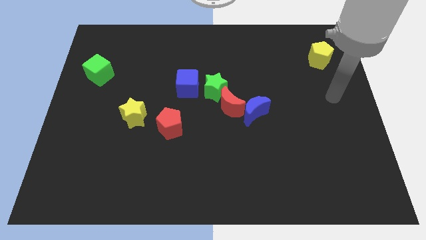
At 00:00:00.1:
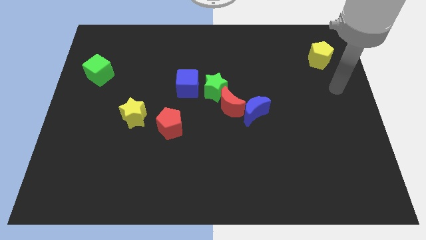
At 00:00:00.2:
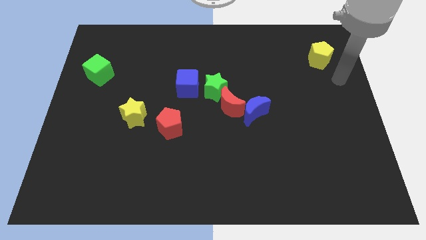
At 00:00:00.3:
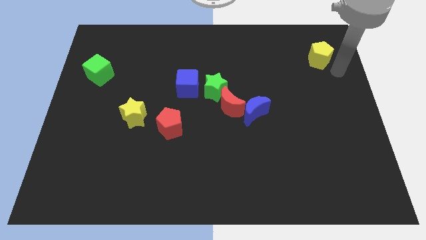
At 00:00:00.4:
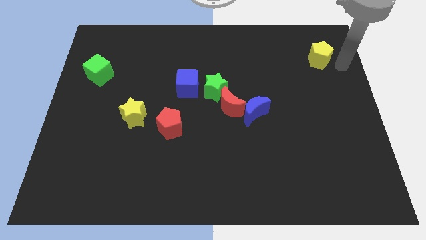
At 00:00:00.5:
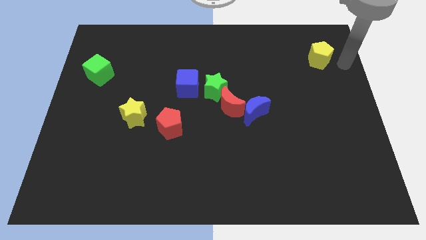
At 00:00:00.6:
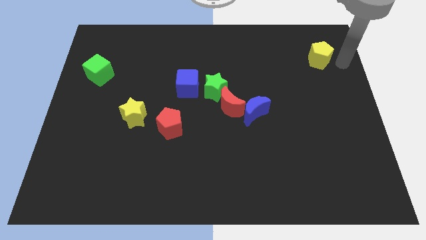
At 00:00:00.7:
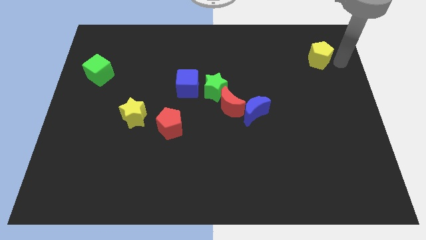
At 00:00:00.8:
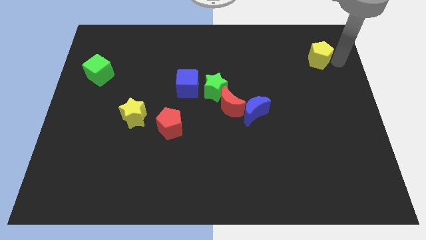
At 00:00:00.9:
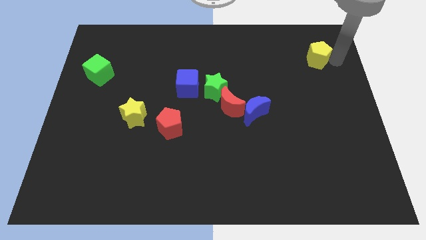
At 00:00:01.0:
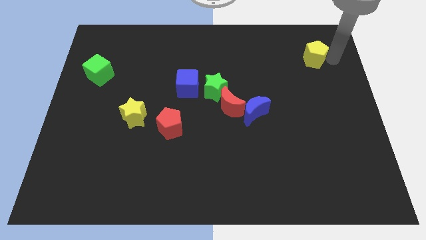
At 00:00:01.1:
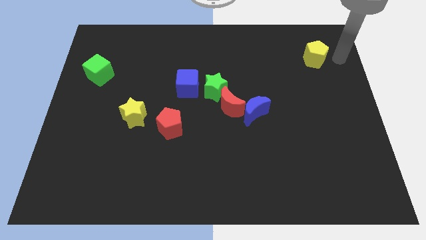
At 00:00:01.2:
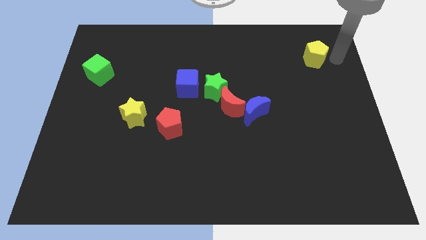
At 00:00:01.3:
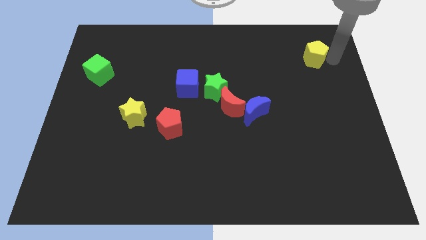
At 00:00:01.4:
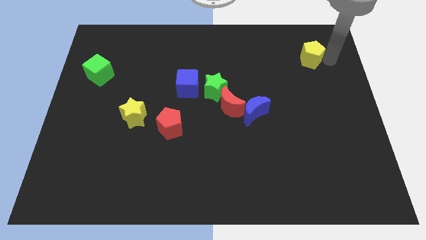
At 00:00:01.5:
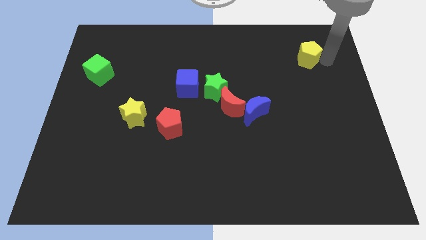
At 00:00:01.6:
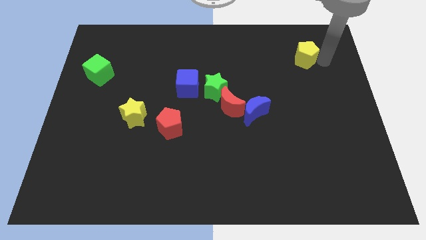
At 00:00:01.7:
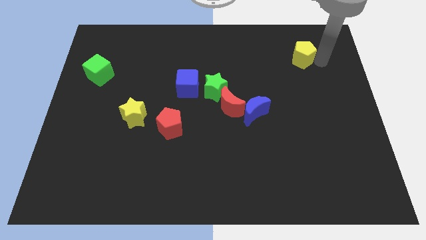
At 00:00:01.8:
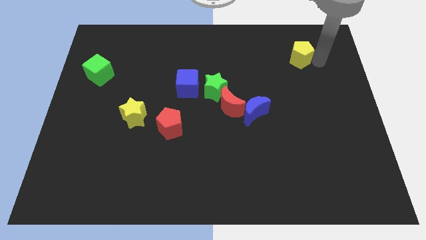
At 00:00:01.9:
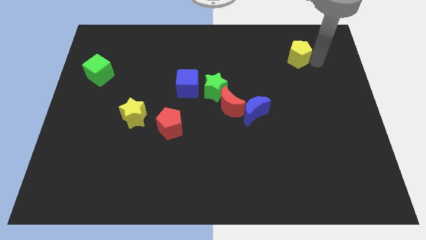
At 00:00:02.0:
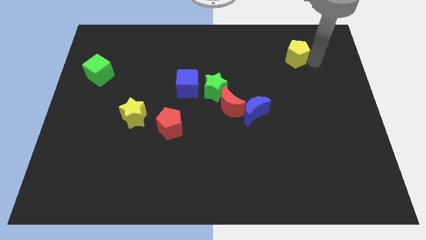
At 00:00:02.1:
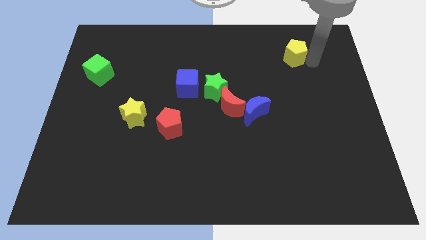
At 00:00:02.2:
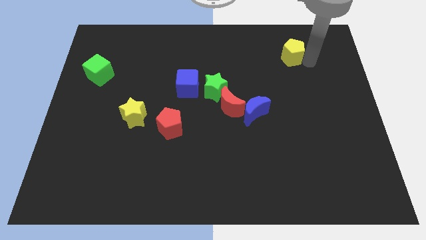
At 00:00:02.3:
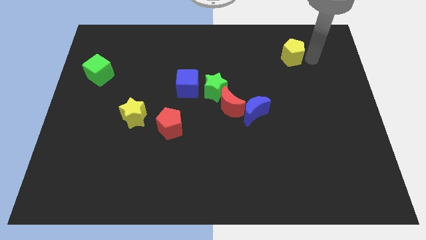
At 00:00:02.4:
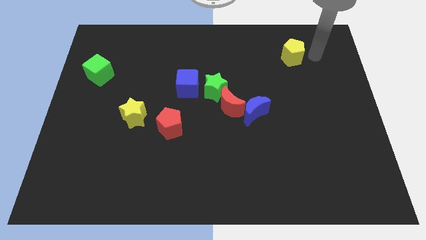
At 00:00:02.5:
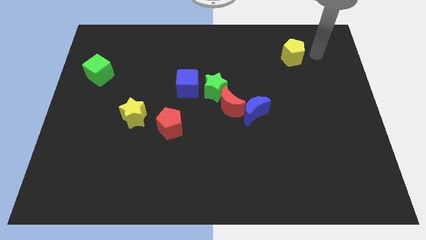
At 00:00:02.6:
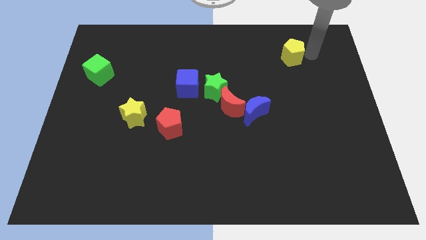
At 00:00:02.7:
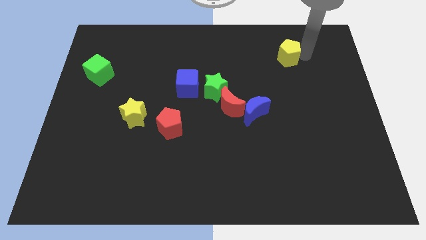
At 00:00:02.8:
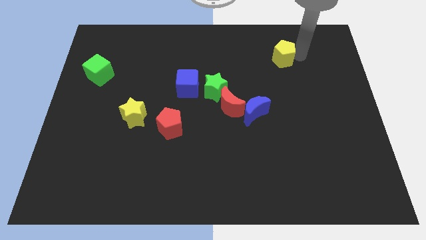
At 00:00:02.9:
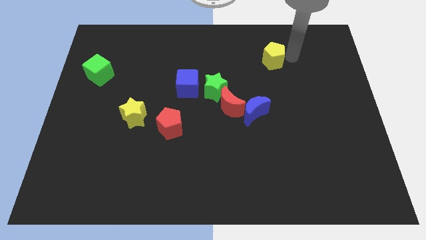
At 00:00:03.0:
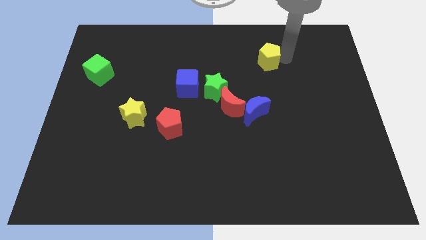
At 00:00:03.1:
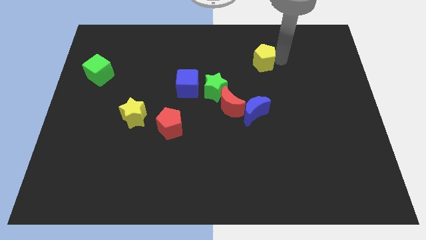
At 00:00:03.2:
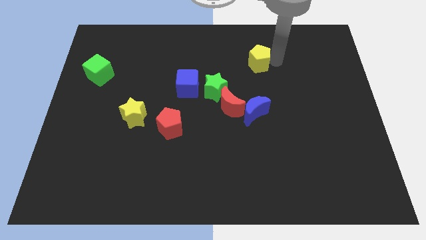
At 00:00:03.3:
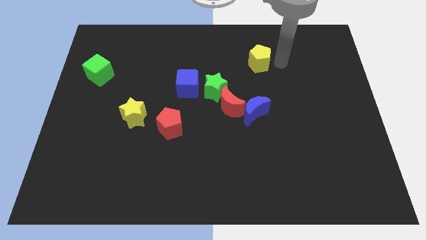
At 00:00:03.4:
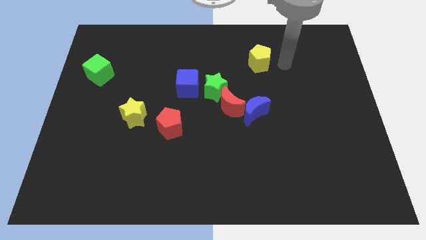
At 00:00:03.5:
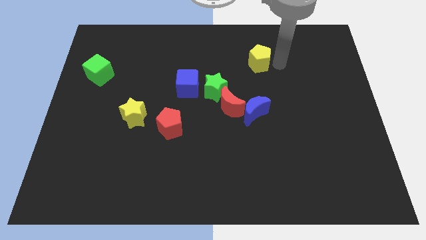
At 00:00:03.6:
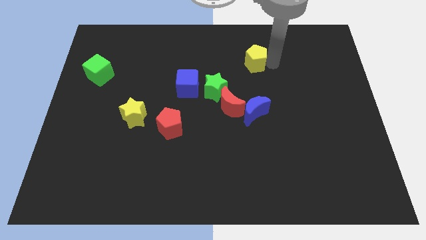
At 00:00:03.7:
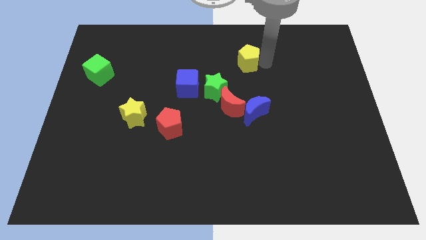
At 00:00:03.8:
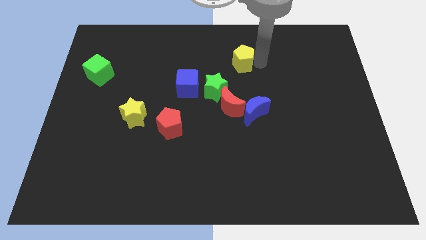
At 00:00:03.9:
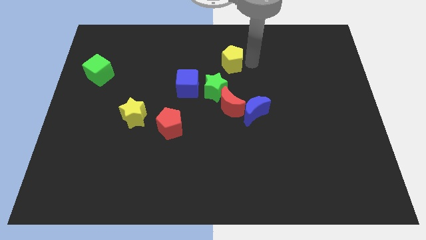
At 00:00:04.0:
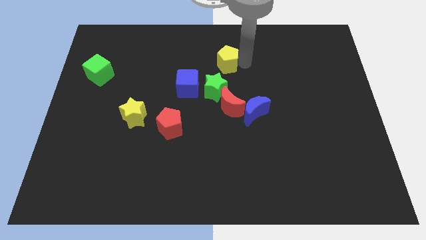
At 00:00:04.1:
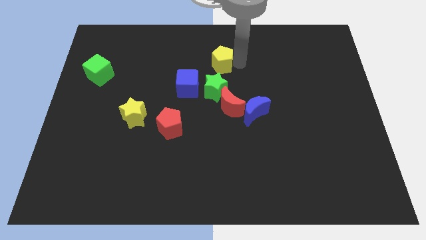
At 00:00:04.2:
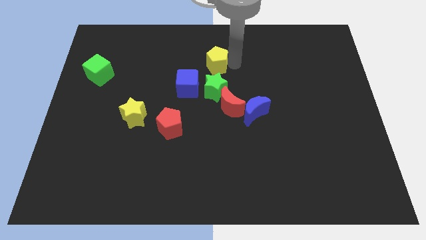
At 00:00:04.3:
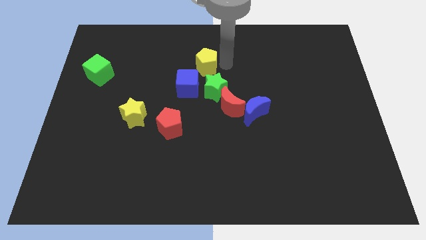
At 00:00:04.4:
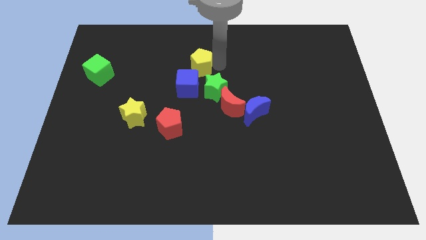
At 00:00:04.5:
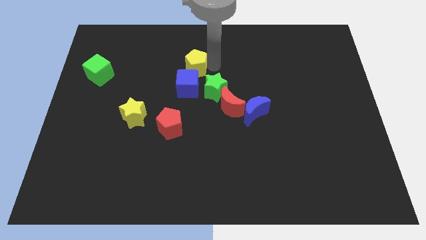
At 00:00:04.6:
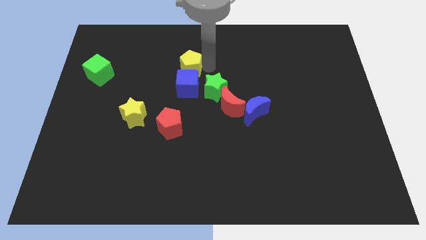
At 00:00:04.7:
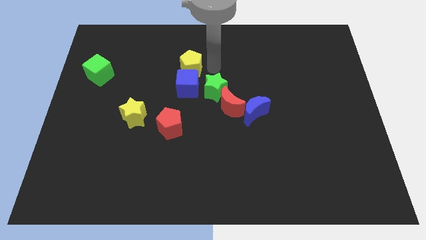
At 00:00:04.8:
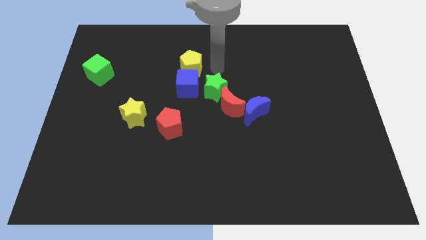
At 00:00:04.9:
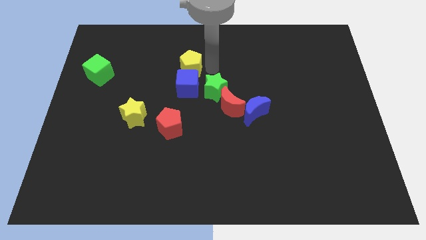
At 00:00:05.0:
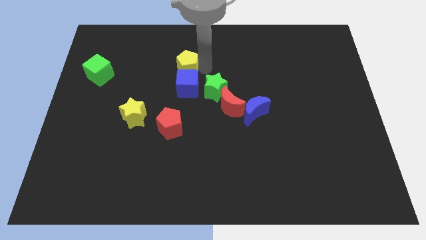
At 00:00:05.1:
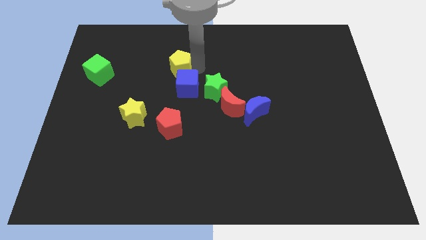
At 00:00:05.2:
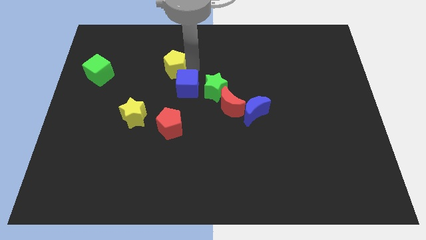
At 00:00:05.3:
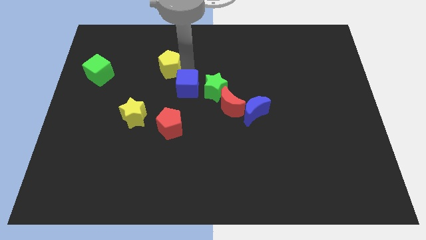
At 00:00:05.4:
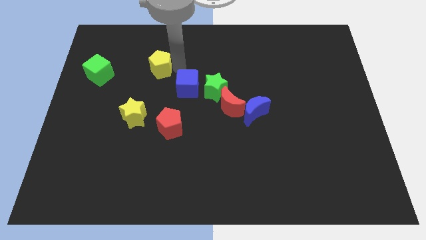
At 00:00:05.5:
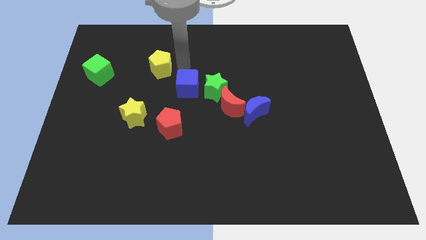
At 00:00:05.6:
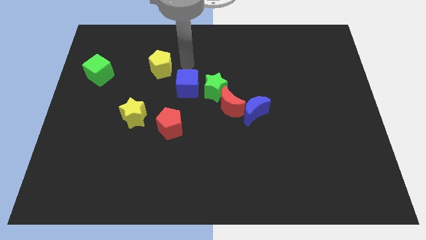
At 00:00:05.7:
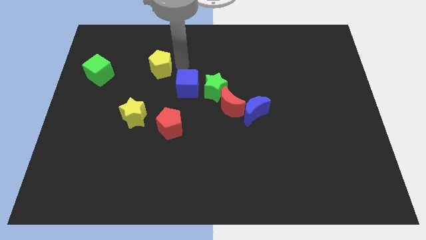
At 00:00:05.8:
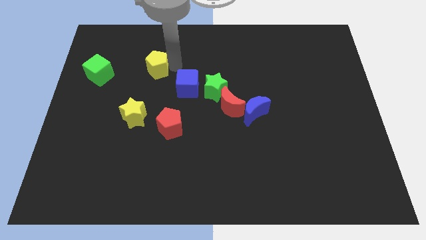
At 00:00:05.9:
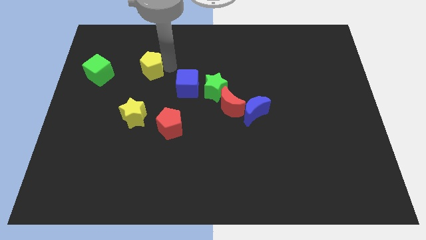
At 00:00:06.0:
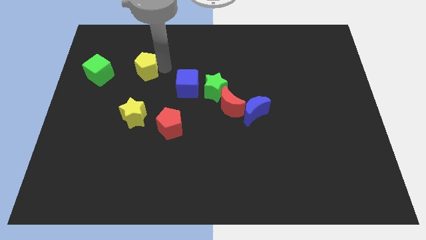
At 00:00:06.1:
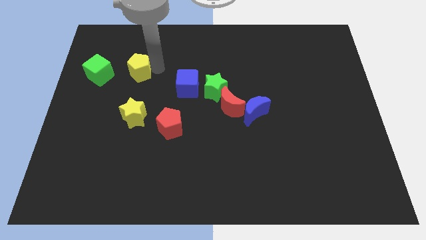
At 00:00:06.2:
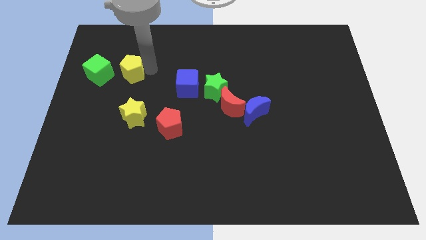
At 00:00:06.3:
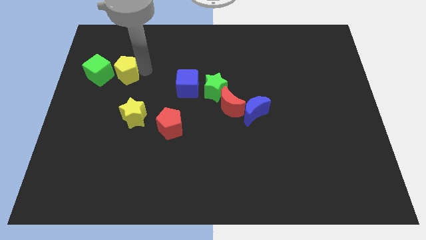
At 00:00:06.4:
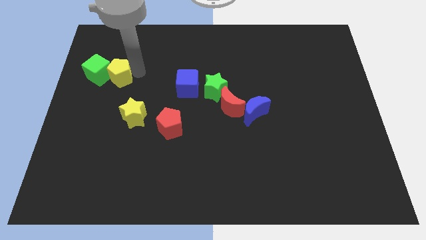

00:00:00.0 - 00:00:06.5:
put the yellow pentagon to the green cube

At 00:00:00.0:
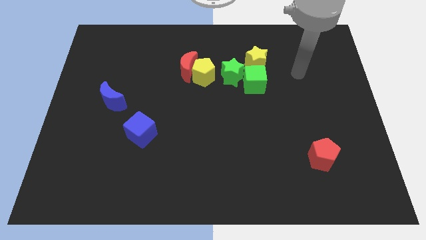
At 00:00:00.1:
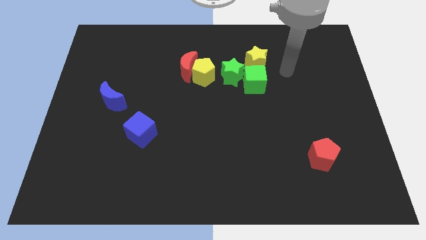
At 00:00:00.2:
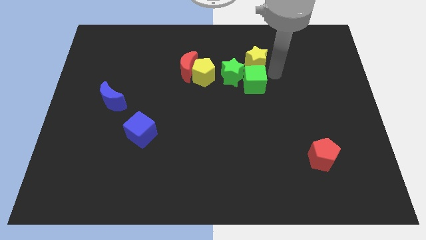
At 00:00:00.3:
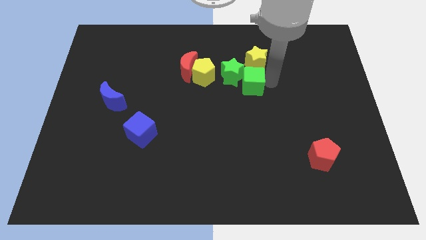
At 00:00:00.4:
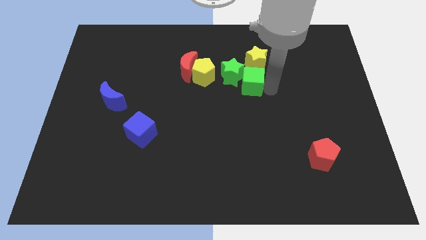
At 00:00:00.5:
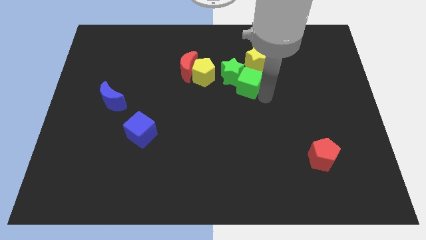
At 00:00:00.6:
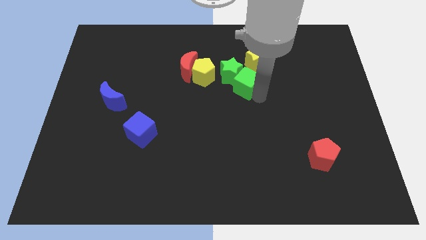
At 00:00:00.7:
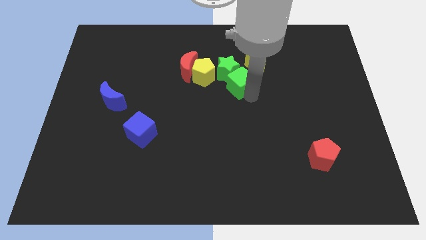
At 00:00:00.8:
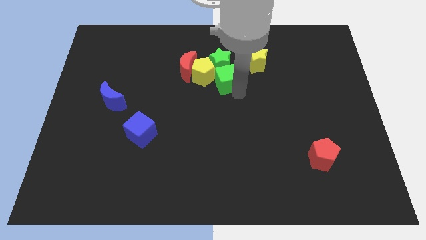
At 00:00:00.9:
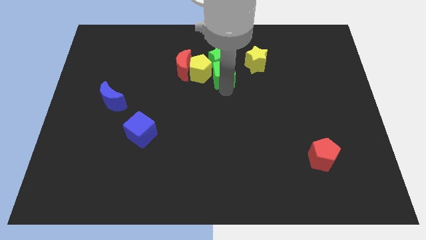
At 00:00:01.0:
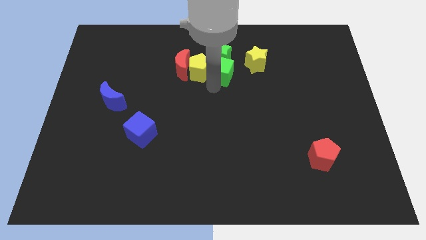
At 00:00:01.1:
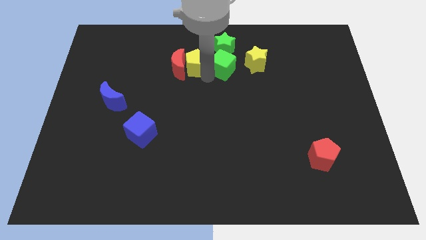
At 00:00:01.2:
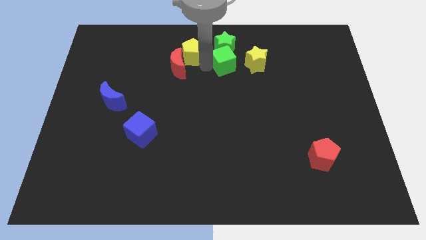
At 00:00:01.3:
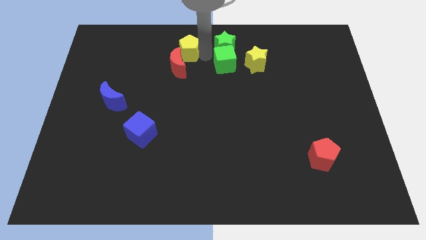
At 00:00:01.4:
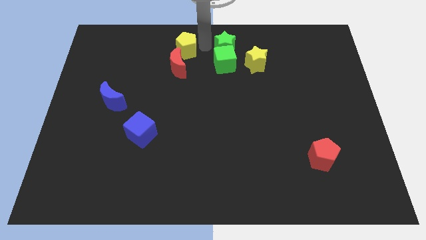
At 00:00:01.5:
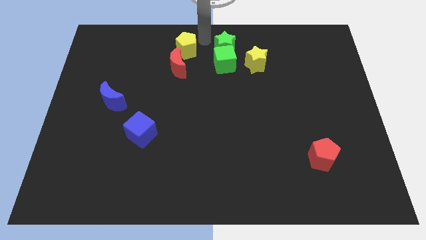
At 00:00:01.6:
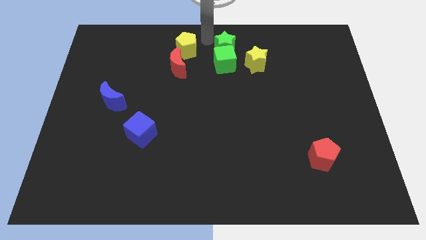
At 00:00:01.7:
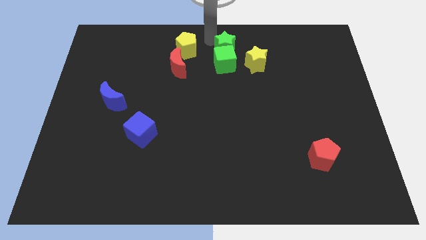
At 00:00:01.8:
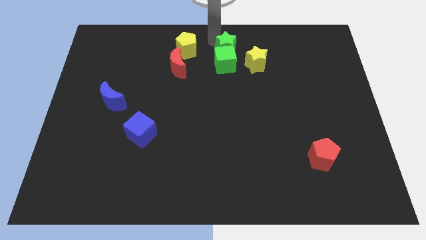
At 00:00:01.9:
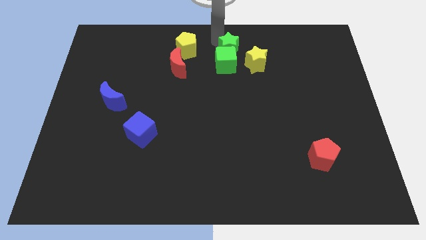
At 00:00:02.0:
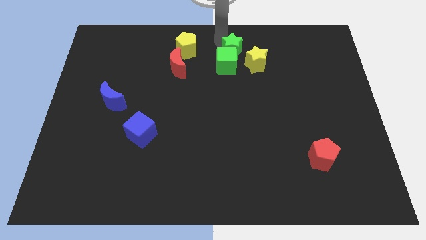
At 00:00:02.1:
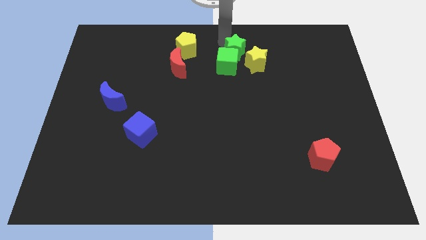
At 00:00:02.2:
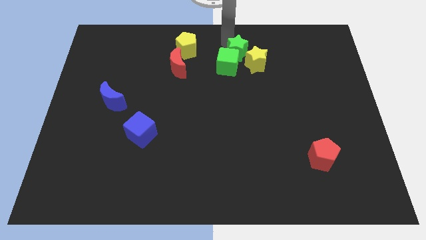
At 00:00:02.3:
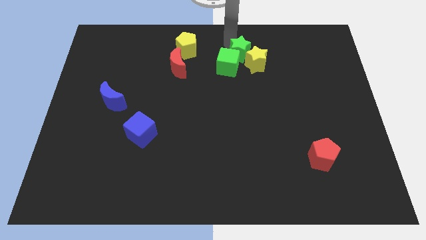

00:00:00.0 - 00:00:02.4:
push the green star to the yellow star
